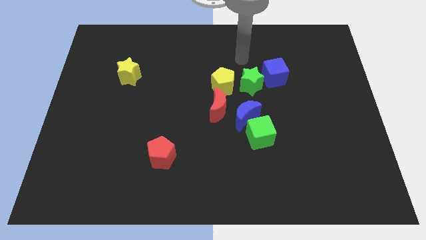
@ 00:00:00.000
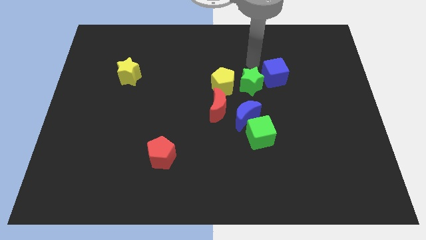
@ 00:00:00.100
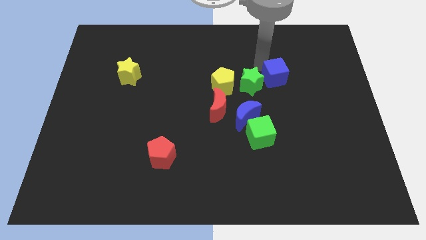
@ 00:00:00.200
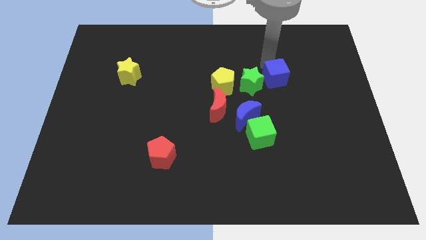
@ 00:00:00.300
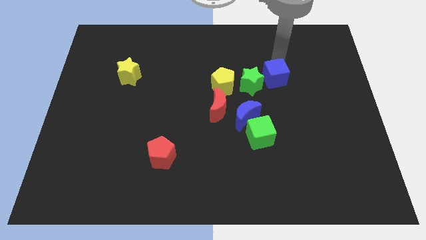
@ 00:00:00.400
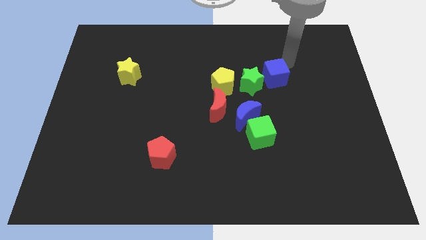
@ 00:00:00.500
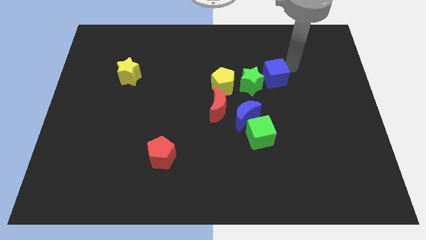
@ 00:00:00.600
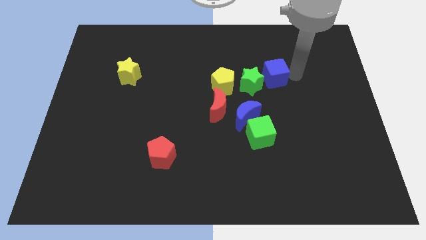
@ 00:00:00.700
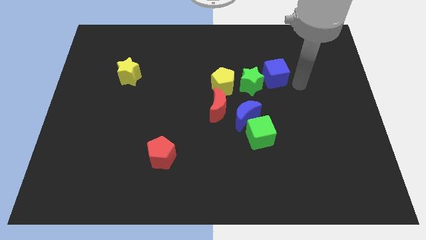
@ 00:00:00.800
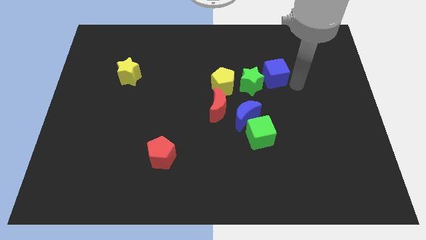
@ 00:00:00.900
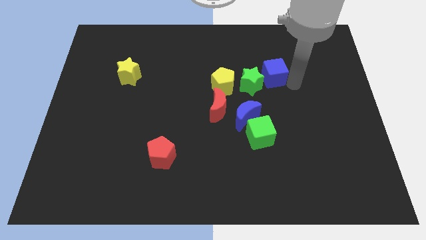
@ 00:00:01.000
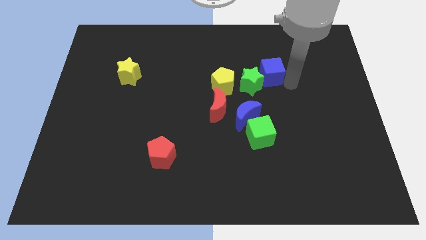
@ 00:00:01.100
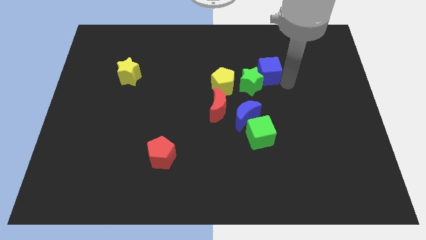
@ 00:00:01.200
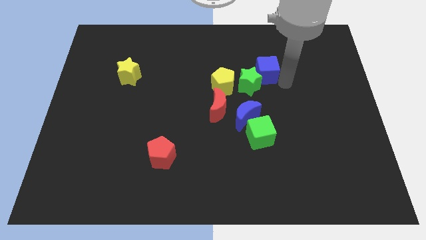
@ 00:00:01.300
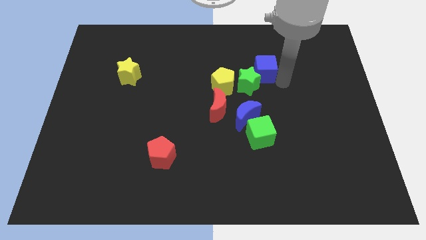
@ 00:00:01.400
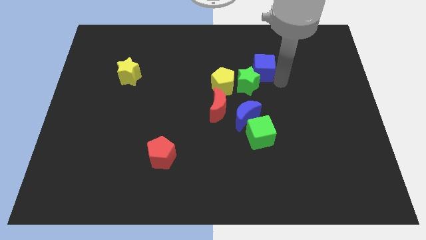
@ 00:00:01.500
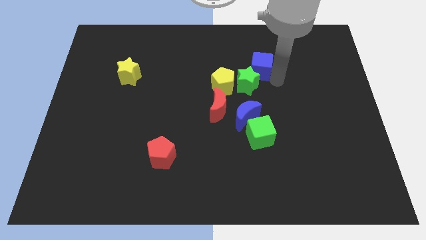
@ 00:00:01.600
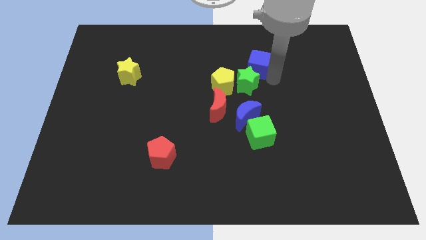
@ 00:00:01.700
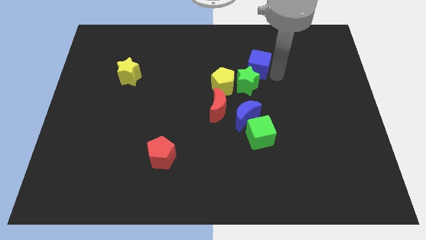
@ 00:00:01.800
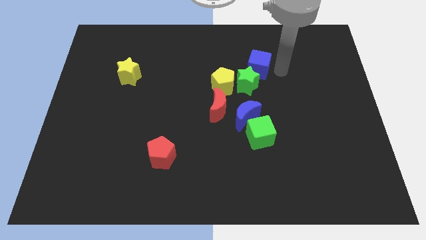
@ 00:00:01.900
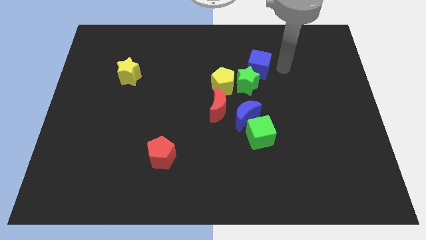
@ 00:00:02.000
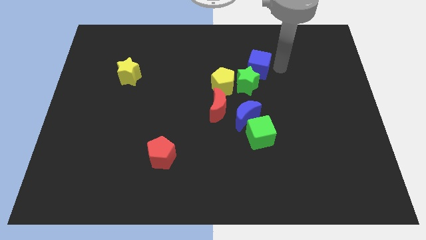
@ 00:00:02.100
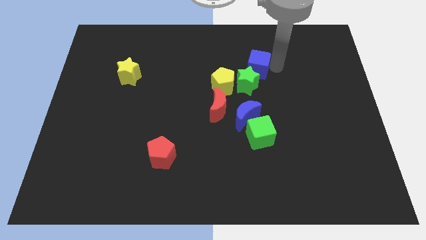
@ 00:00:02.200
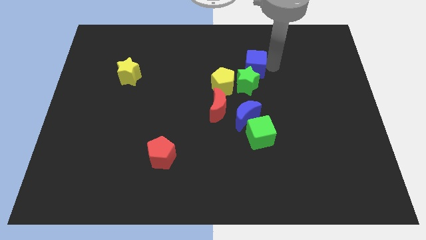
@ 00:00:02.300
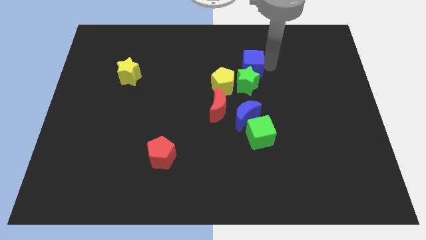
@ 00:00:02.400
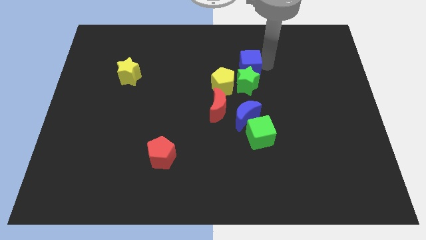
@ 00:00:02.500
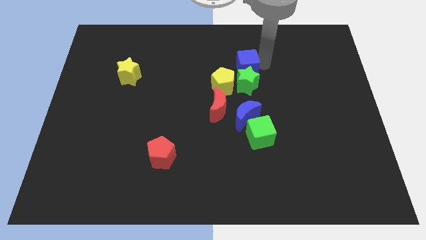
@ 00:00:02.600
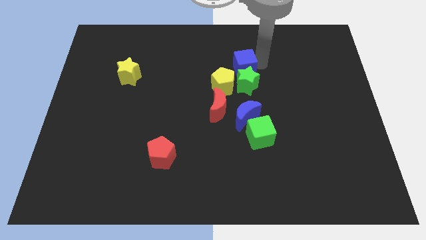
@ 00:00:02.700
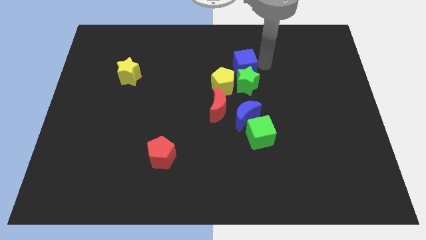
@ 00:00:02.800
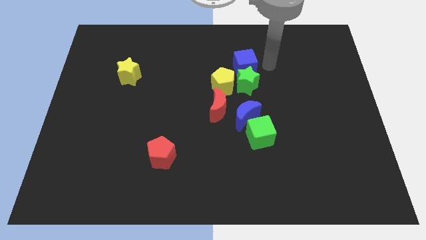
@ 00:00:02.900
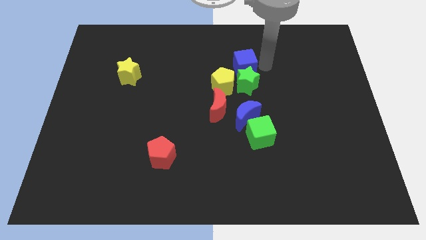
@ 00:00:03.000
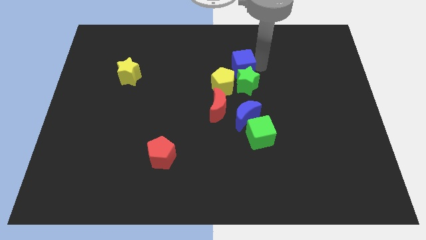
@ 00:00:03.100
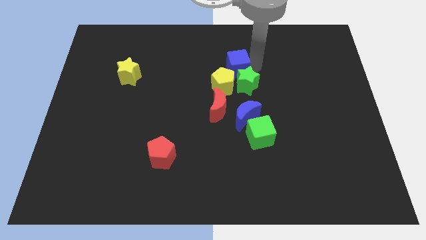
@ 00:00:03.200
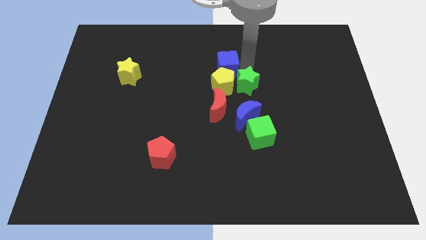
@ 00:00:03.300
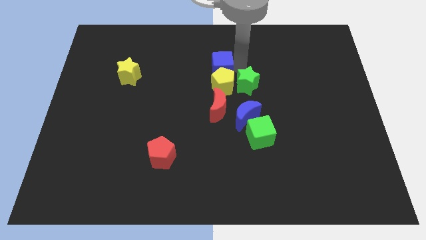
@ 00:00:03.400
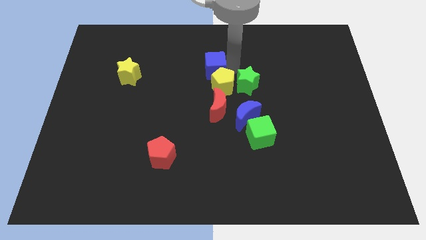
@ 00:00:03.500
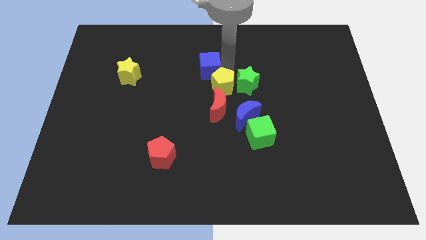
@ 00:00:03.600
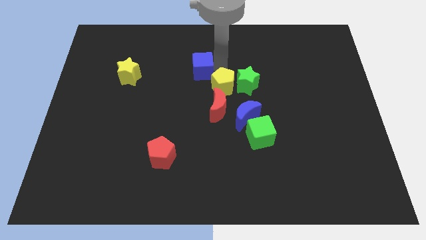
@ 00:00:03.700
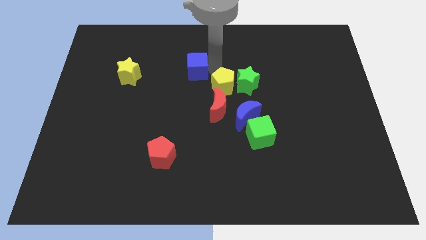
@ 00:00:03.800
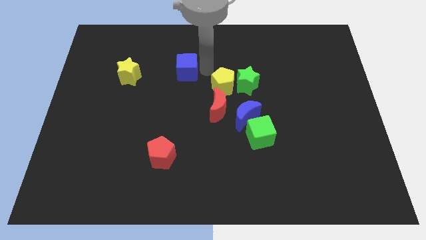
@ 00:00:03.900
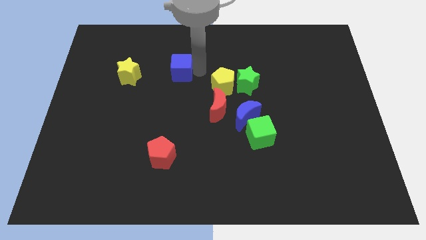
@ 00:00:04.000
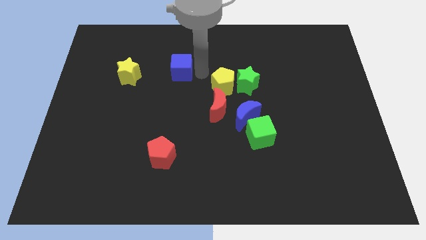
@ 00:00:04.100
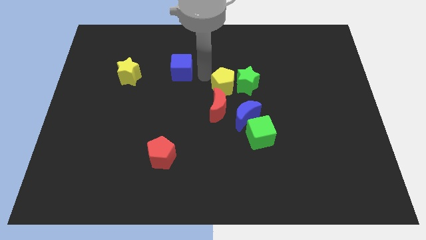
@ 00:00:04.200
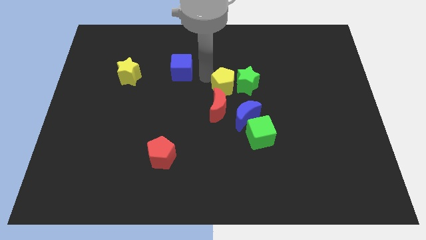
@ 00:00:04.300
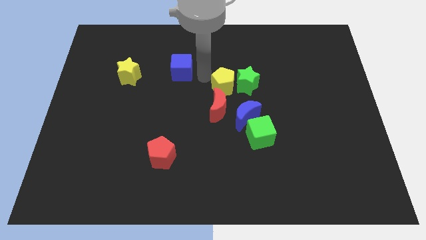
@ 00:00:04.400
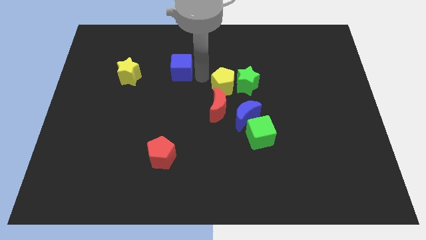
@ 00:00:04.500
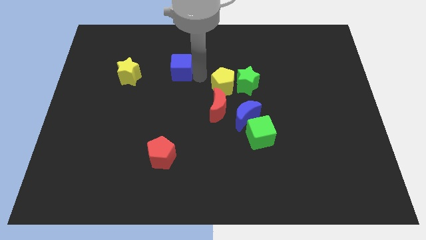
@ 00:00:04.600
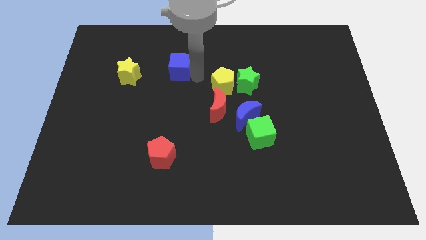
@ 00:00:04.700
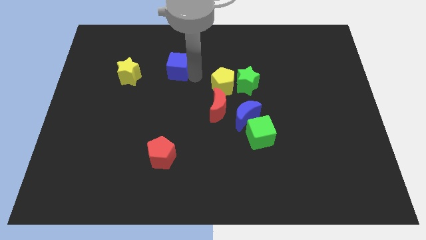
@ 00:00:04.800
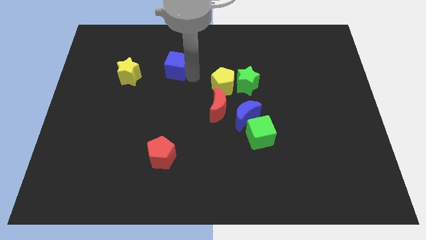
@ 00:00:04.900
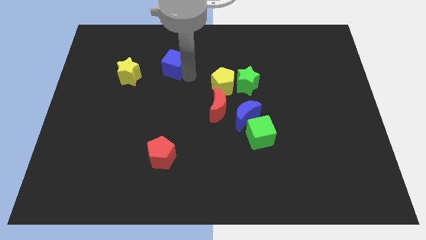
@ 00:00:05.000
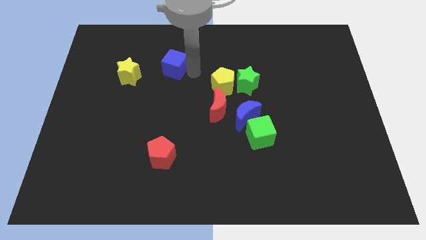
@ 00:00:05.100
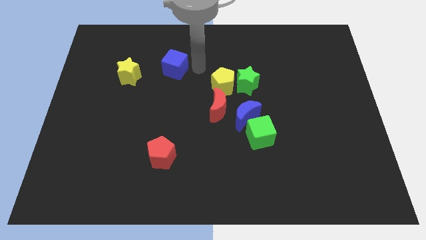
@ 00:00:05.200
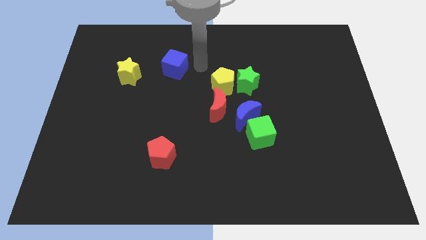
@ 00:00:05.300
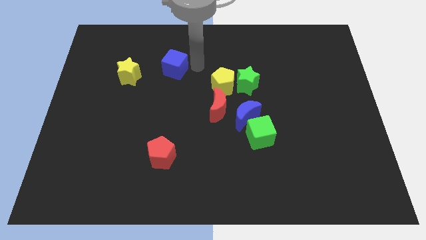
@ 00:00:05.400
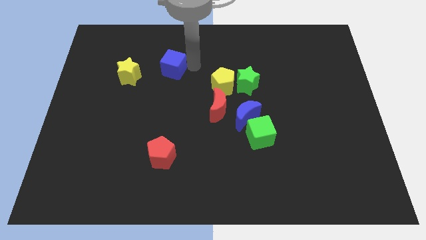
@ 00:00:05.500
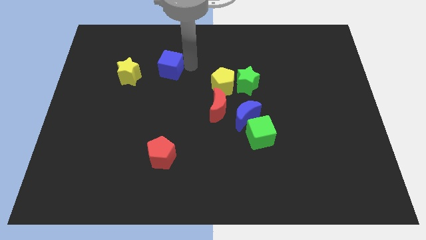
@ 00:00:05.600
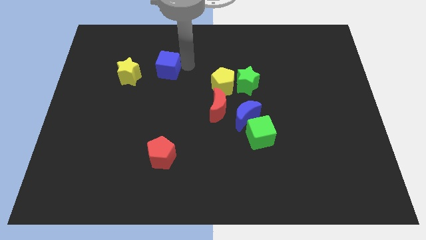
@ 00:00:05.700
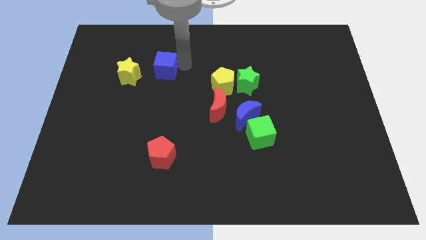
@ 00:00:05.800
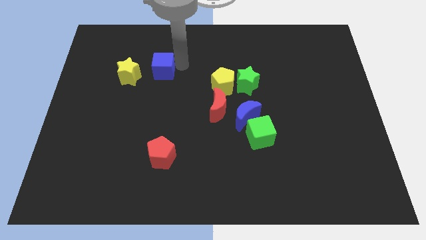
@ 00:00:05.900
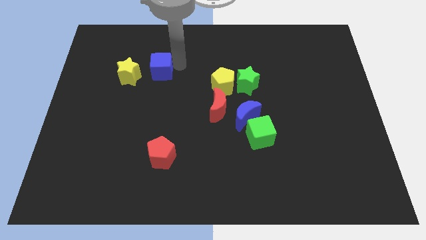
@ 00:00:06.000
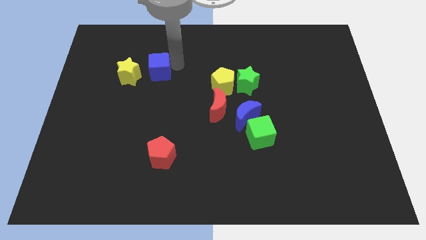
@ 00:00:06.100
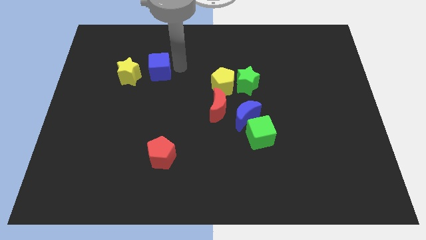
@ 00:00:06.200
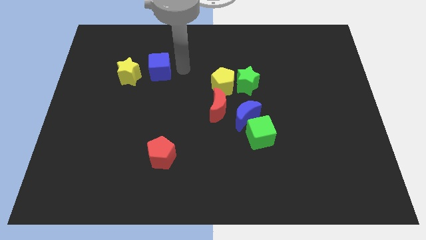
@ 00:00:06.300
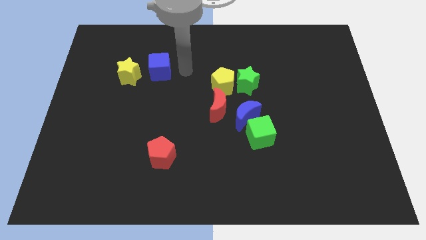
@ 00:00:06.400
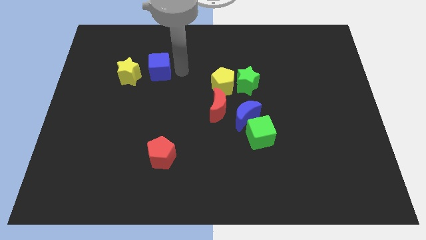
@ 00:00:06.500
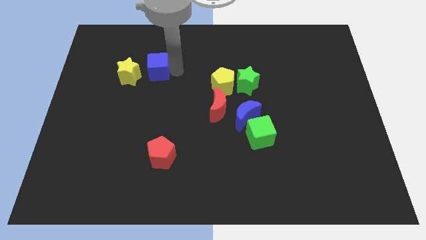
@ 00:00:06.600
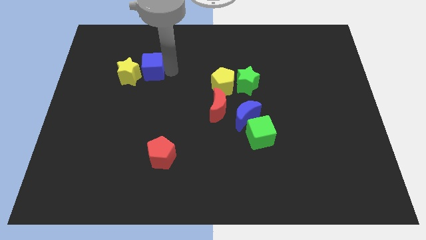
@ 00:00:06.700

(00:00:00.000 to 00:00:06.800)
put the blue cube to the yellow star

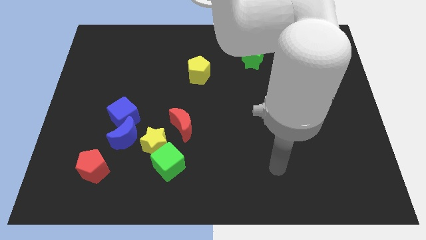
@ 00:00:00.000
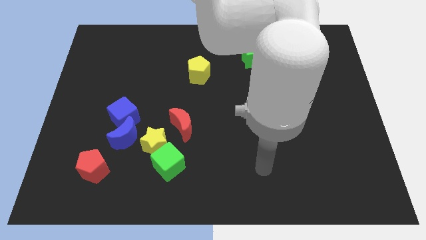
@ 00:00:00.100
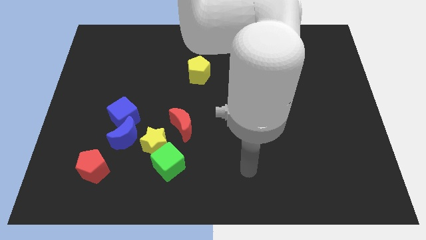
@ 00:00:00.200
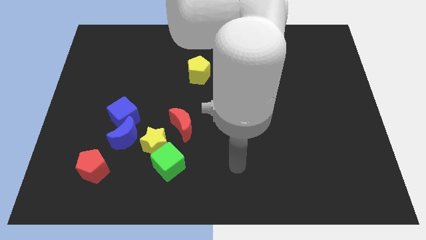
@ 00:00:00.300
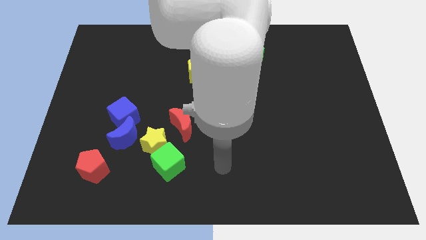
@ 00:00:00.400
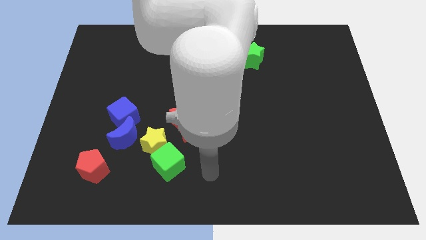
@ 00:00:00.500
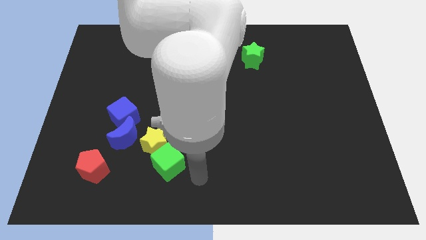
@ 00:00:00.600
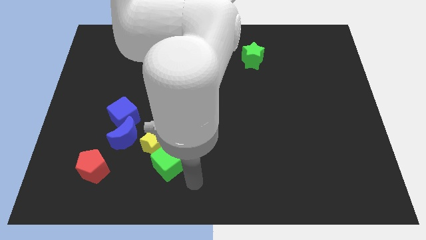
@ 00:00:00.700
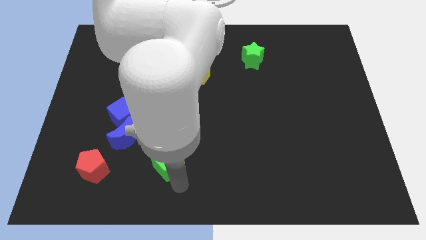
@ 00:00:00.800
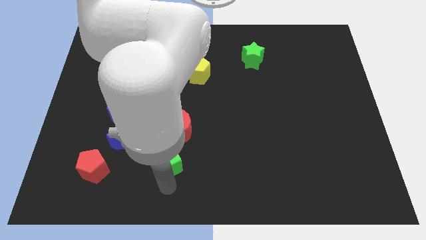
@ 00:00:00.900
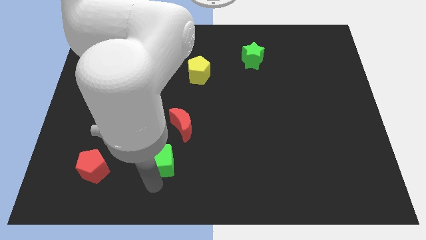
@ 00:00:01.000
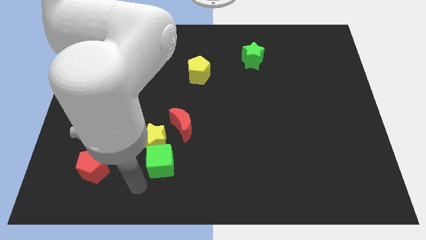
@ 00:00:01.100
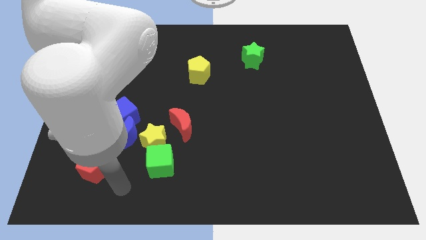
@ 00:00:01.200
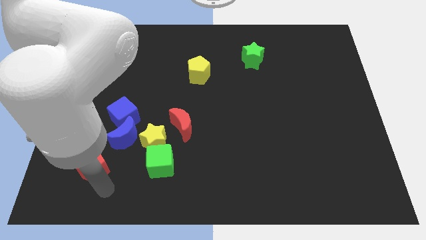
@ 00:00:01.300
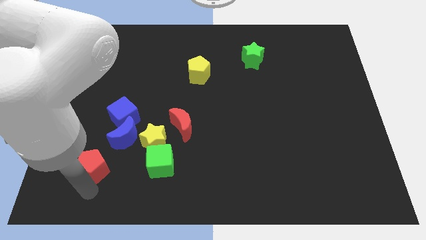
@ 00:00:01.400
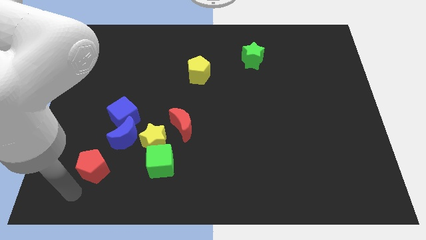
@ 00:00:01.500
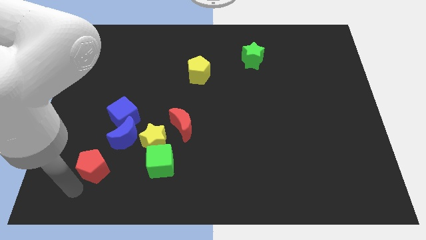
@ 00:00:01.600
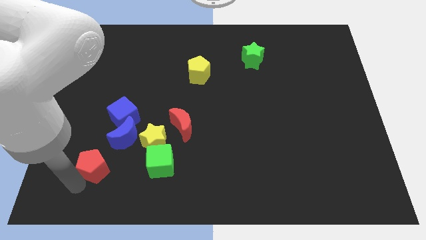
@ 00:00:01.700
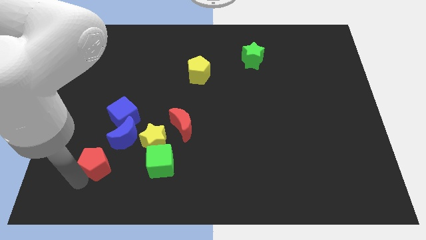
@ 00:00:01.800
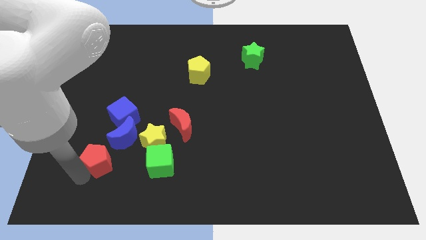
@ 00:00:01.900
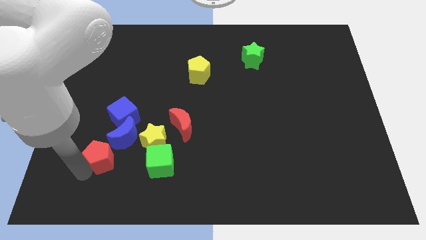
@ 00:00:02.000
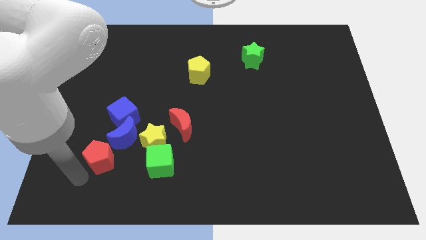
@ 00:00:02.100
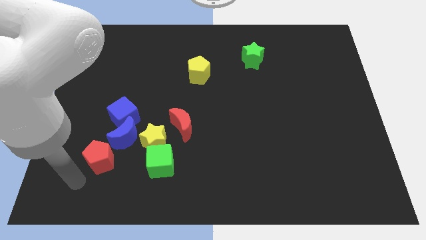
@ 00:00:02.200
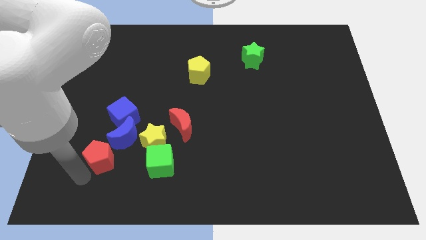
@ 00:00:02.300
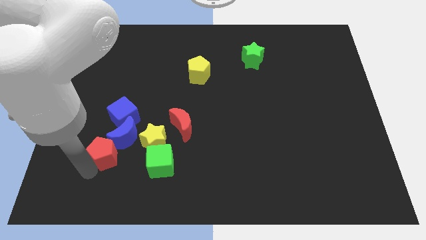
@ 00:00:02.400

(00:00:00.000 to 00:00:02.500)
slide the red pentagon to the blue moon
